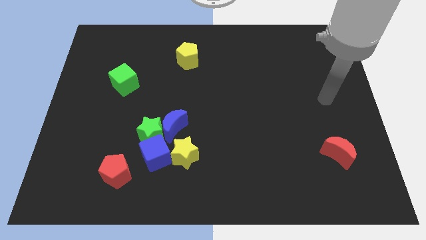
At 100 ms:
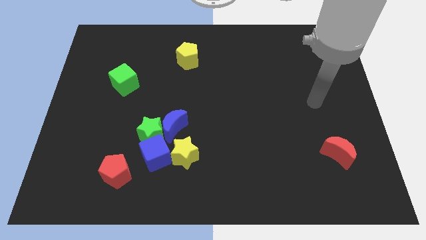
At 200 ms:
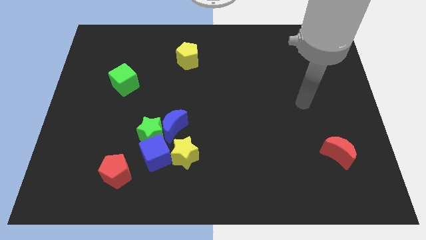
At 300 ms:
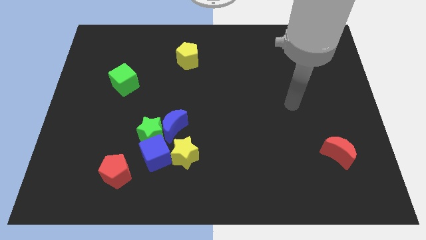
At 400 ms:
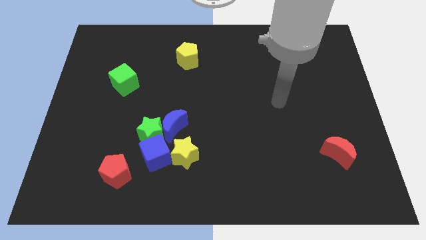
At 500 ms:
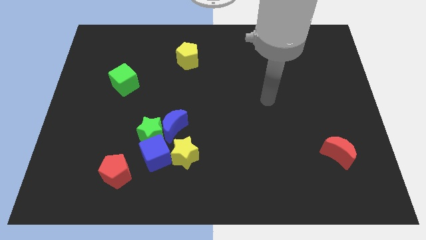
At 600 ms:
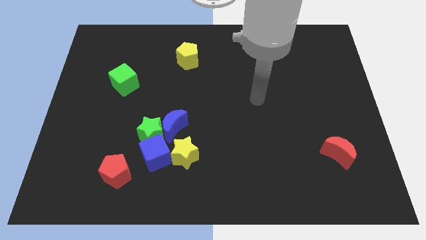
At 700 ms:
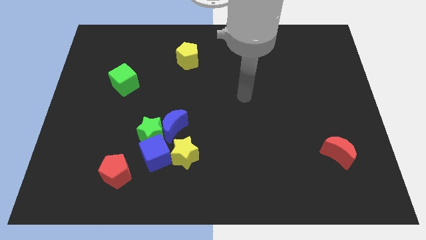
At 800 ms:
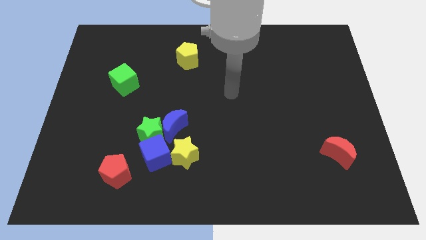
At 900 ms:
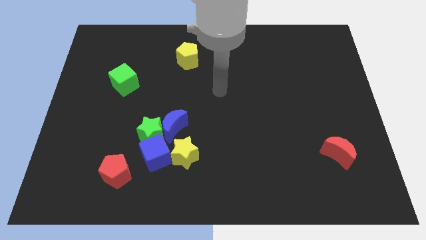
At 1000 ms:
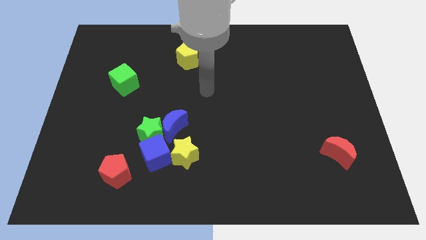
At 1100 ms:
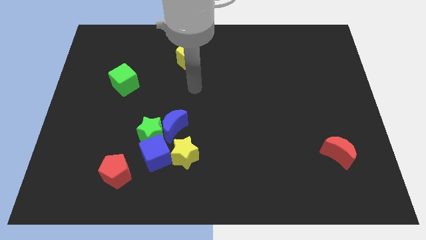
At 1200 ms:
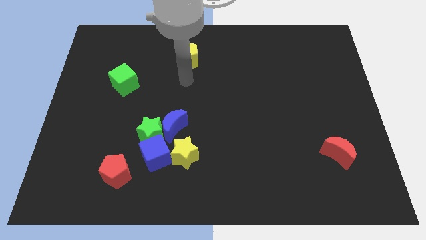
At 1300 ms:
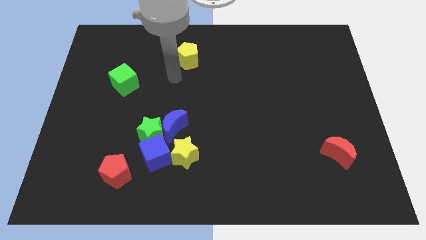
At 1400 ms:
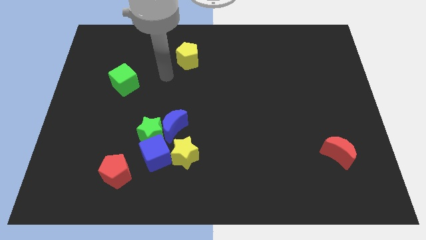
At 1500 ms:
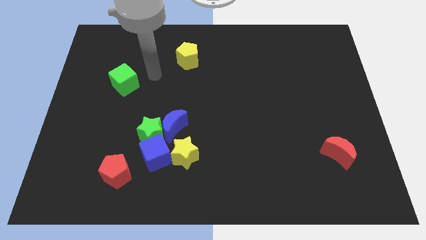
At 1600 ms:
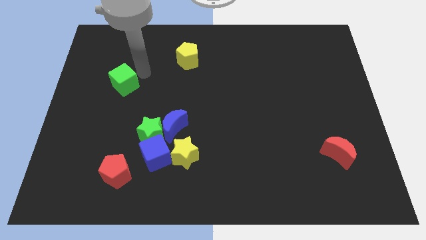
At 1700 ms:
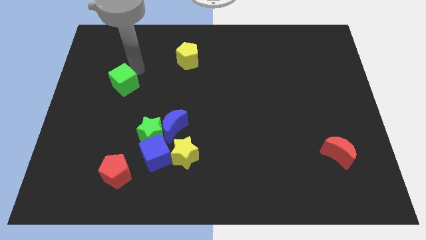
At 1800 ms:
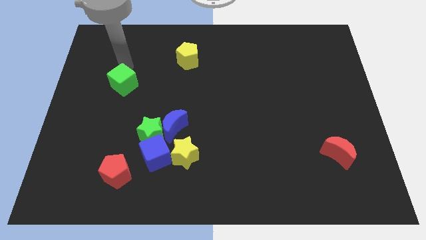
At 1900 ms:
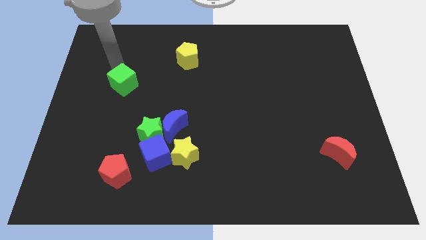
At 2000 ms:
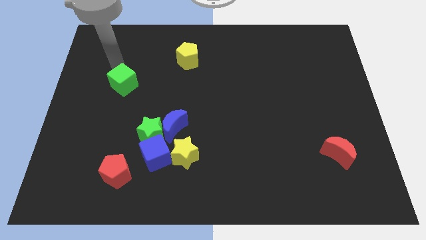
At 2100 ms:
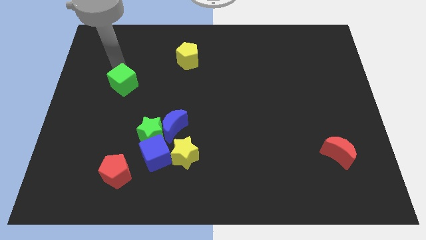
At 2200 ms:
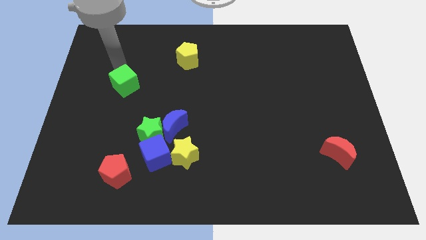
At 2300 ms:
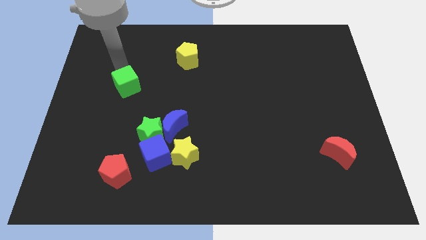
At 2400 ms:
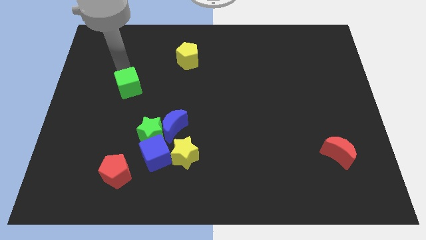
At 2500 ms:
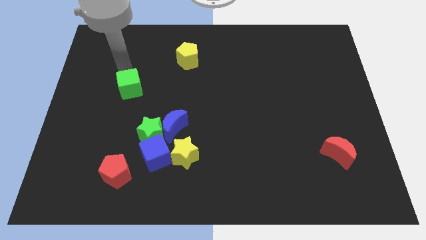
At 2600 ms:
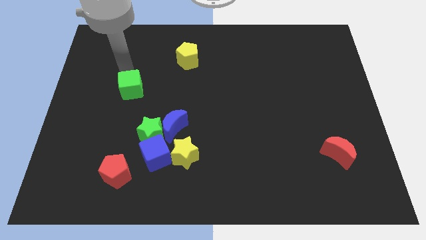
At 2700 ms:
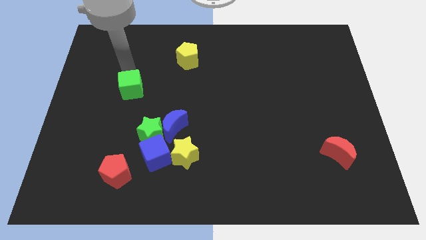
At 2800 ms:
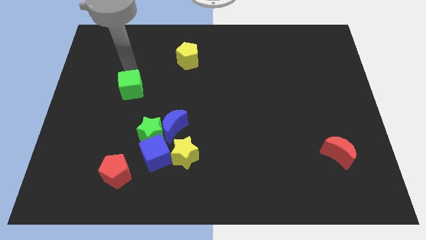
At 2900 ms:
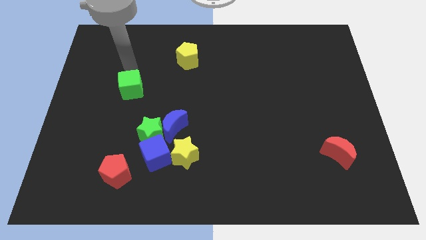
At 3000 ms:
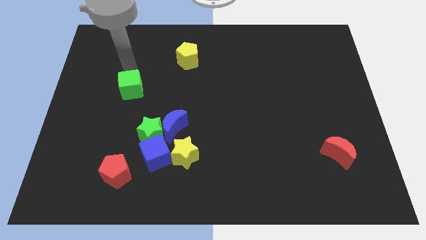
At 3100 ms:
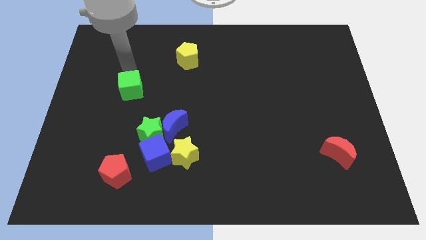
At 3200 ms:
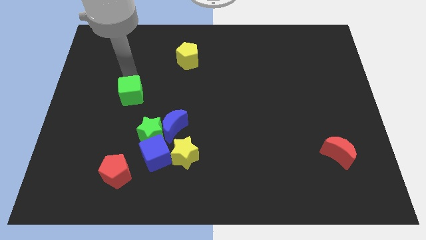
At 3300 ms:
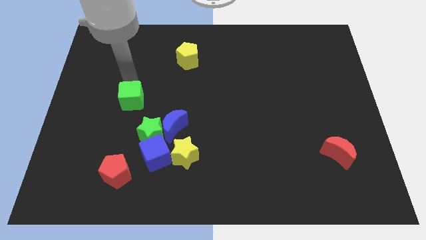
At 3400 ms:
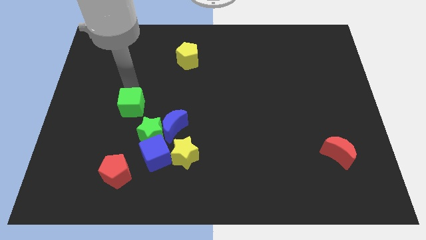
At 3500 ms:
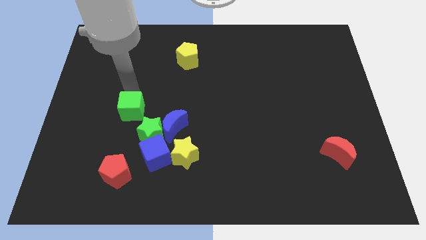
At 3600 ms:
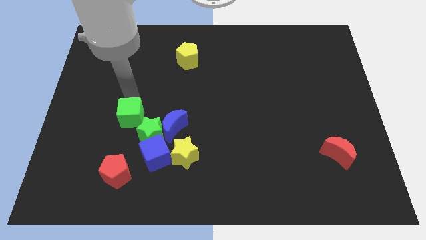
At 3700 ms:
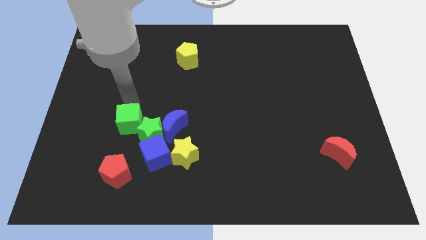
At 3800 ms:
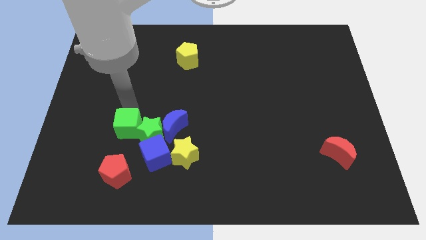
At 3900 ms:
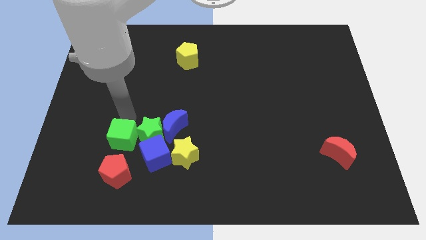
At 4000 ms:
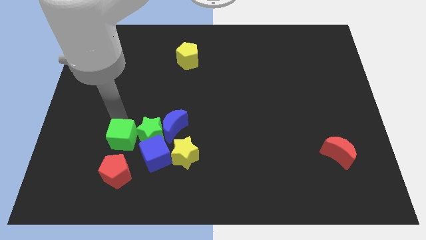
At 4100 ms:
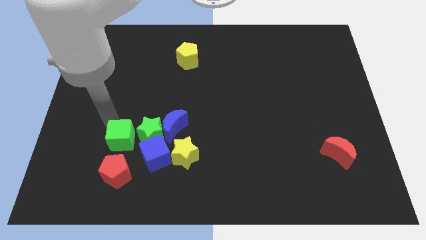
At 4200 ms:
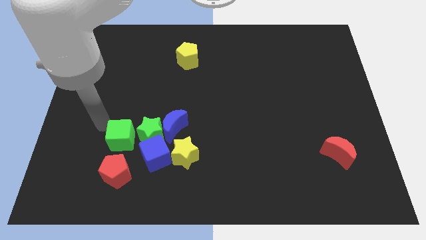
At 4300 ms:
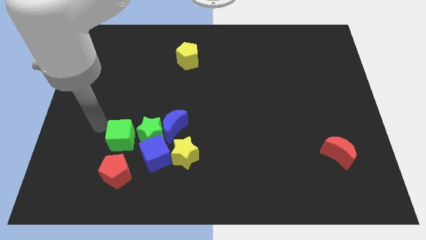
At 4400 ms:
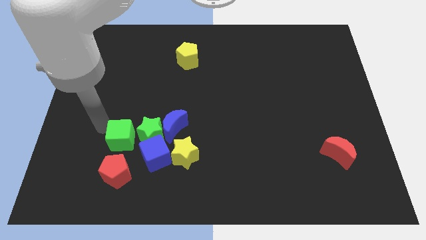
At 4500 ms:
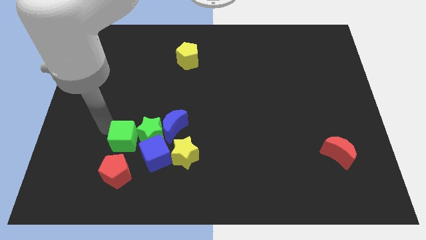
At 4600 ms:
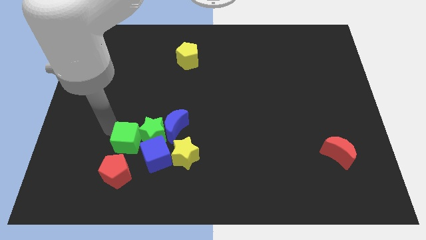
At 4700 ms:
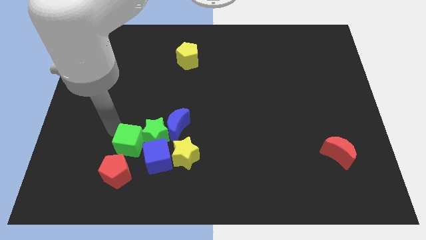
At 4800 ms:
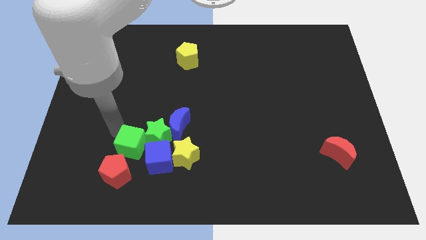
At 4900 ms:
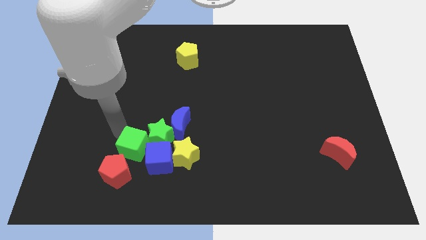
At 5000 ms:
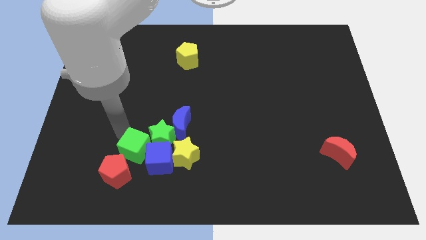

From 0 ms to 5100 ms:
move the green cube next to the blue cube

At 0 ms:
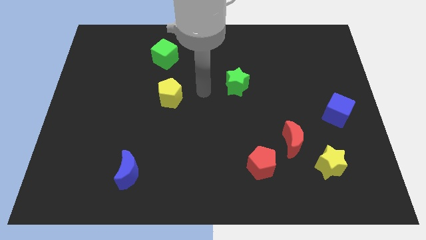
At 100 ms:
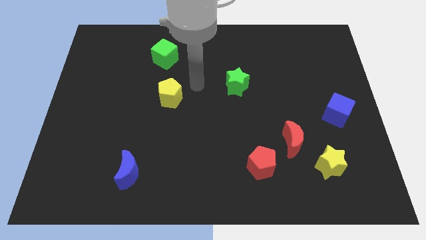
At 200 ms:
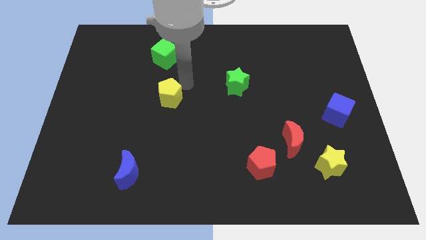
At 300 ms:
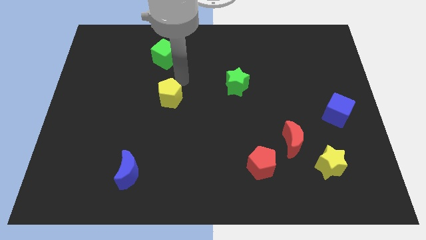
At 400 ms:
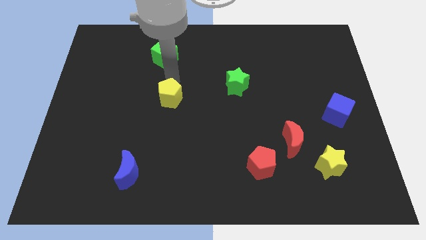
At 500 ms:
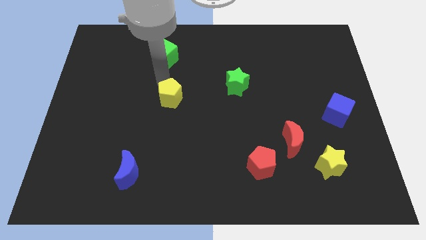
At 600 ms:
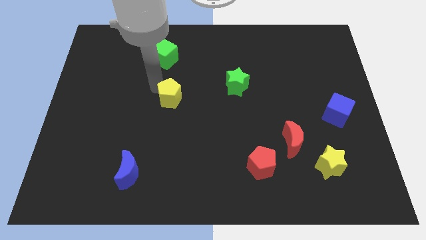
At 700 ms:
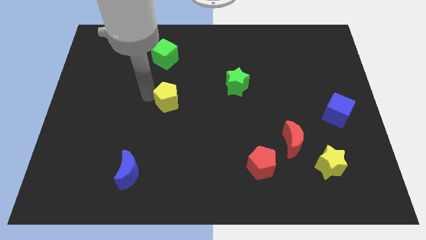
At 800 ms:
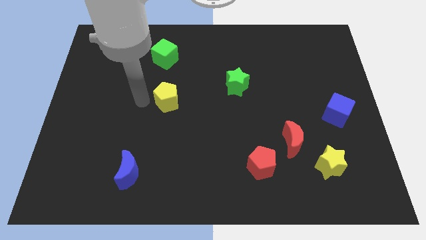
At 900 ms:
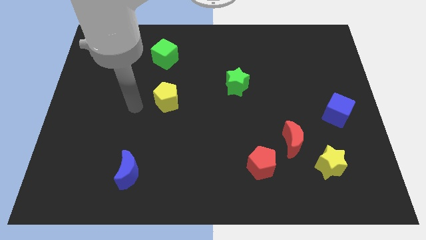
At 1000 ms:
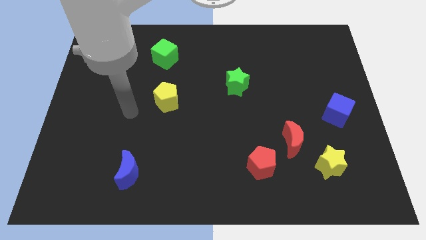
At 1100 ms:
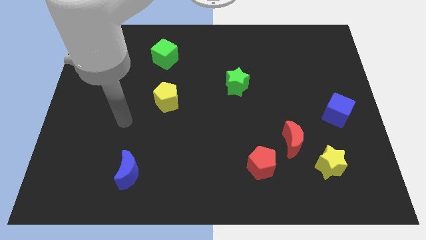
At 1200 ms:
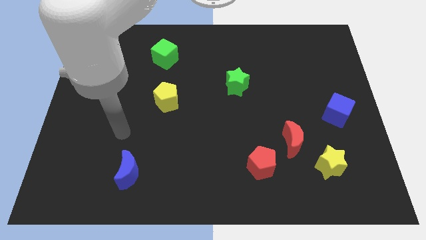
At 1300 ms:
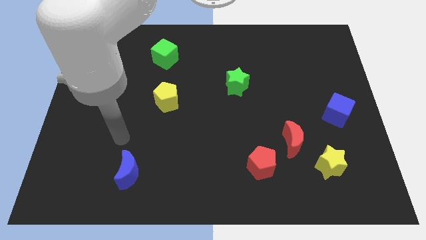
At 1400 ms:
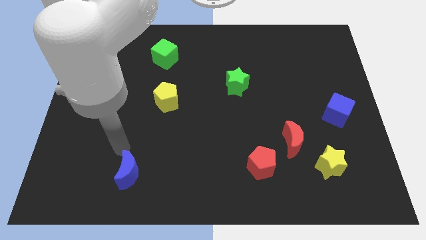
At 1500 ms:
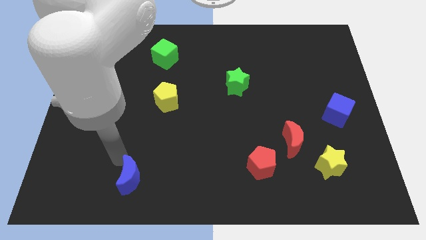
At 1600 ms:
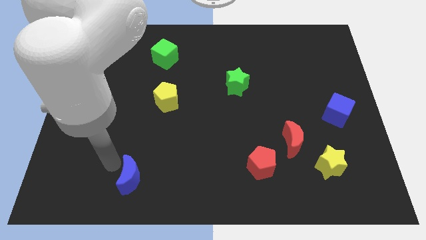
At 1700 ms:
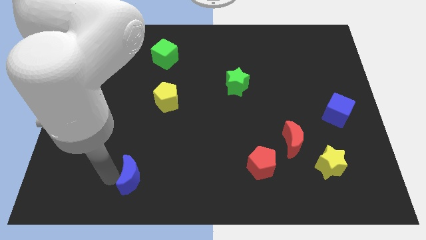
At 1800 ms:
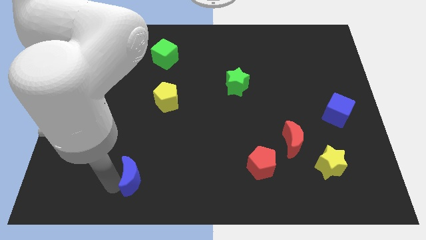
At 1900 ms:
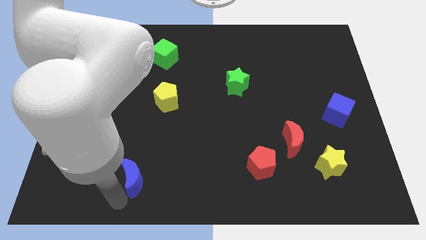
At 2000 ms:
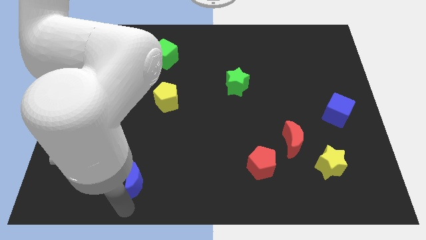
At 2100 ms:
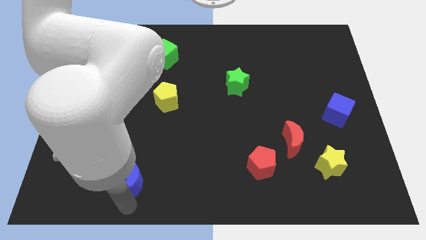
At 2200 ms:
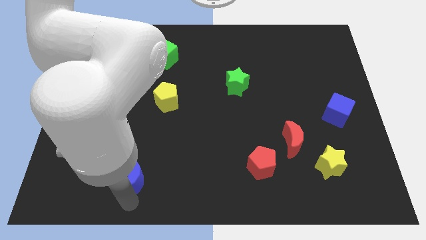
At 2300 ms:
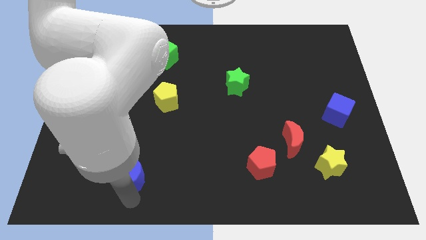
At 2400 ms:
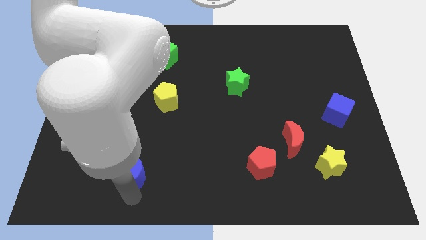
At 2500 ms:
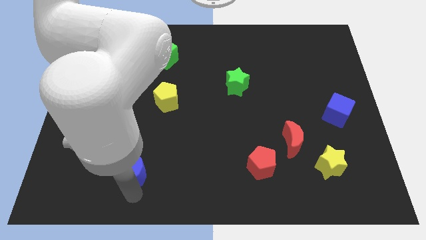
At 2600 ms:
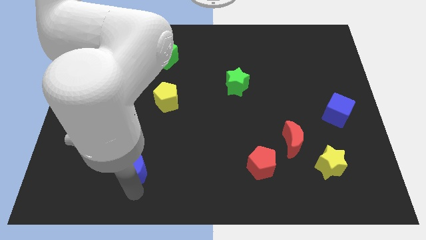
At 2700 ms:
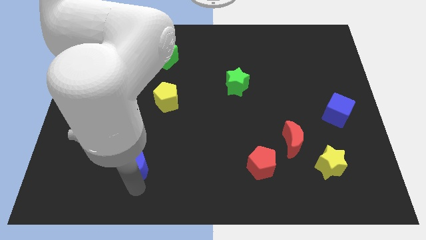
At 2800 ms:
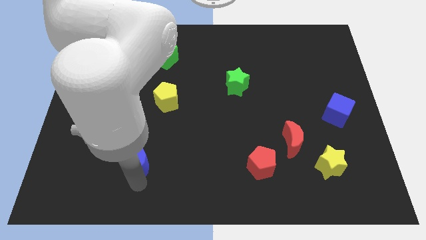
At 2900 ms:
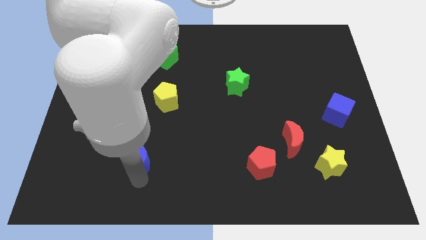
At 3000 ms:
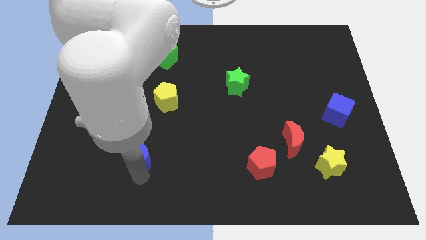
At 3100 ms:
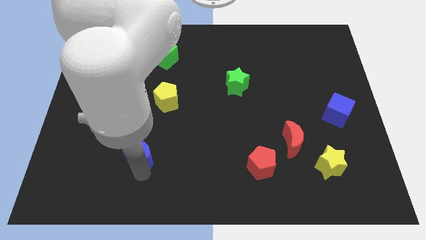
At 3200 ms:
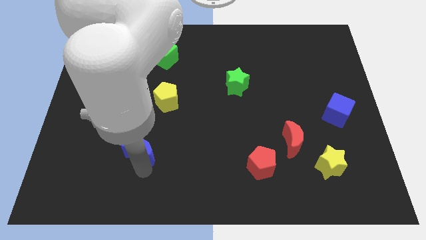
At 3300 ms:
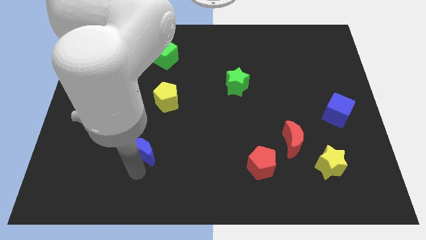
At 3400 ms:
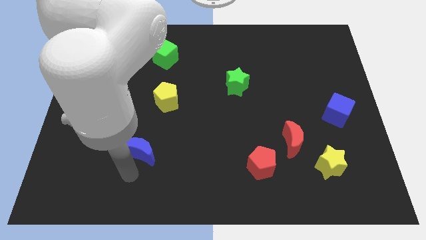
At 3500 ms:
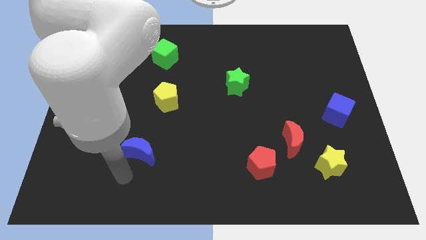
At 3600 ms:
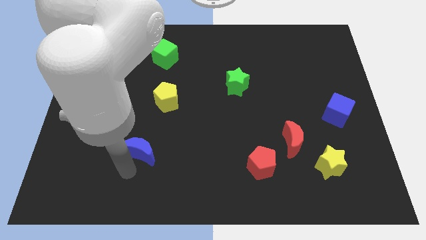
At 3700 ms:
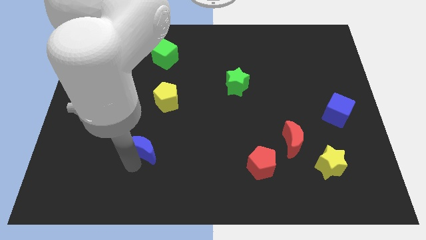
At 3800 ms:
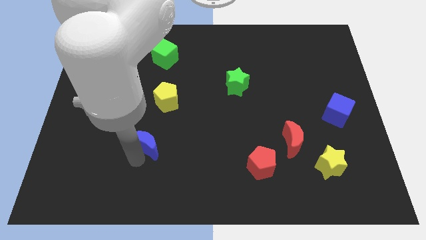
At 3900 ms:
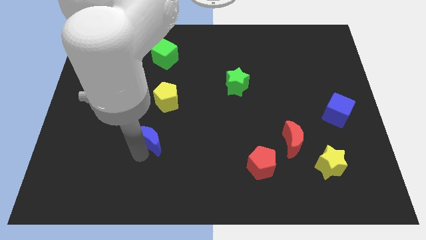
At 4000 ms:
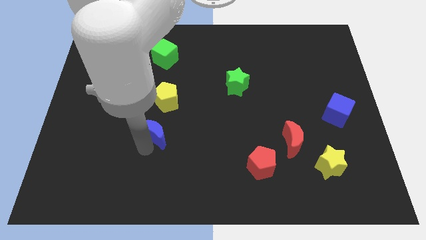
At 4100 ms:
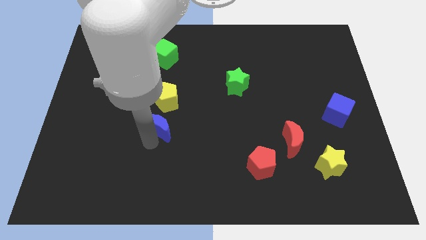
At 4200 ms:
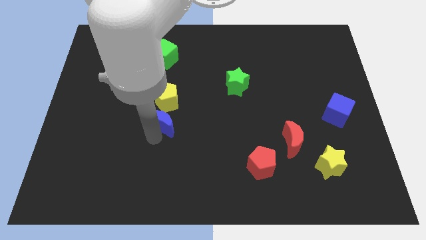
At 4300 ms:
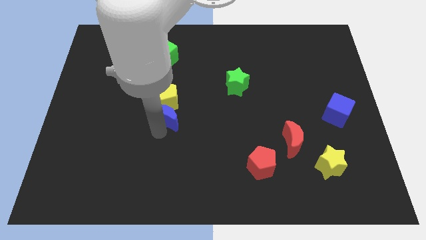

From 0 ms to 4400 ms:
move the blue moon towards the yellow pentagon
